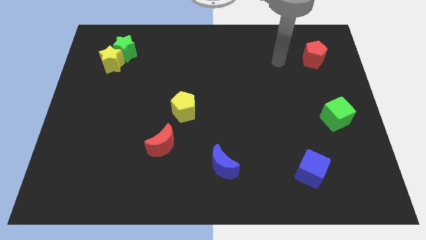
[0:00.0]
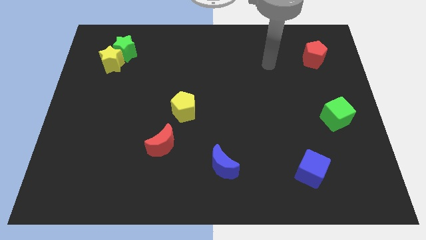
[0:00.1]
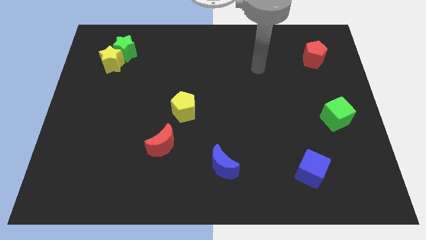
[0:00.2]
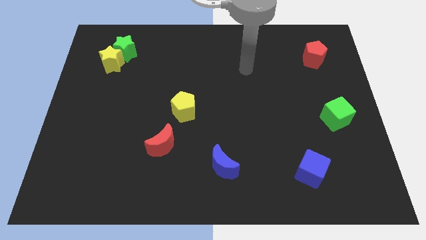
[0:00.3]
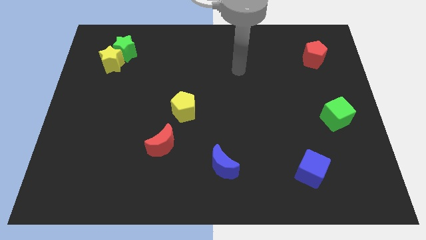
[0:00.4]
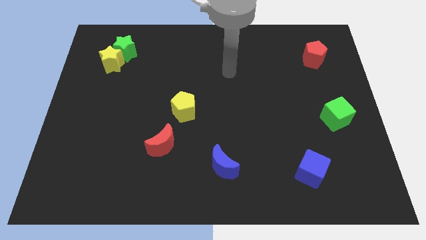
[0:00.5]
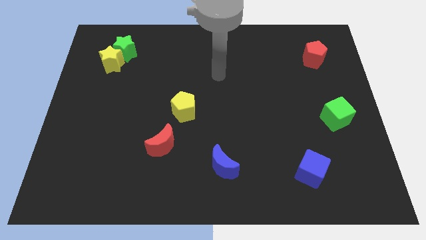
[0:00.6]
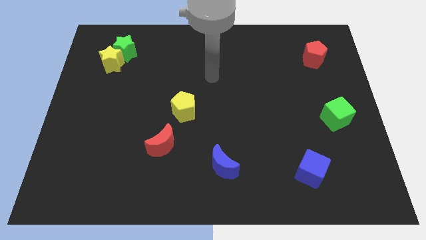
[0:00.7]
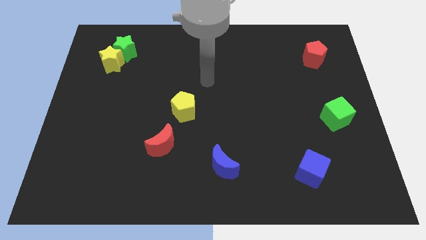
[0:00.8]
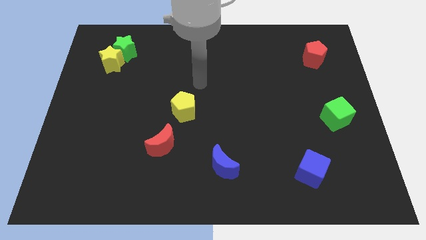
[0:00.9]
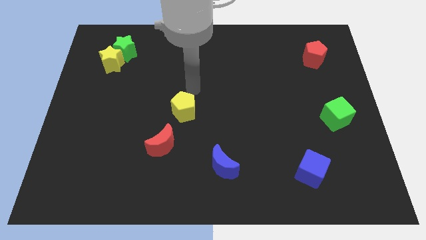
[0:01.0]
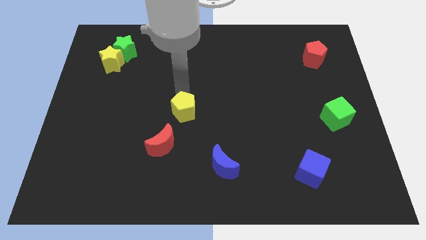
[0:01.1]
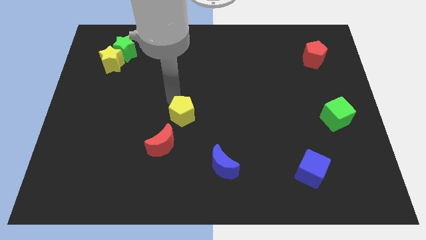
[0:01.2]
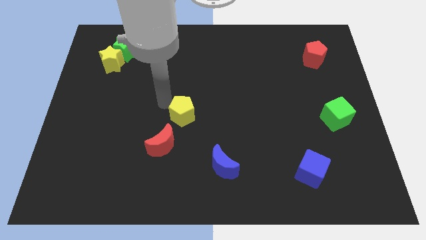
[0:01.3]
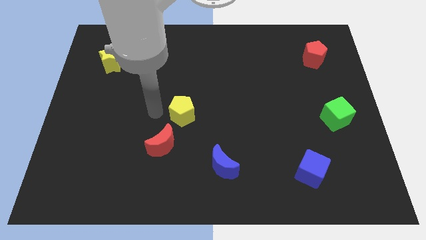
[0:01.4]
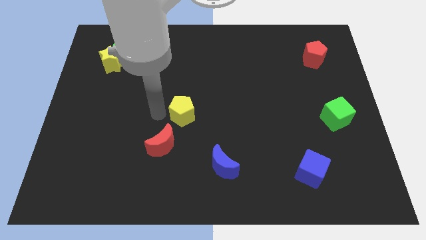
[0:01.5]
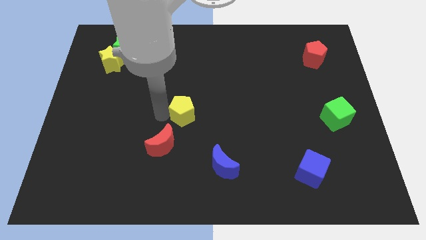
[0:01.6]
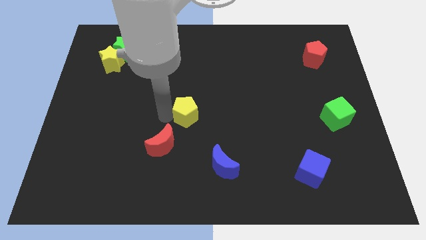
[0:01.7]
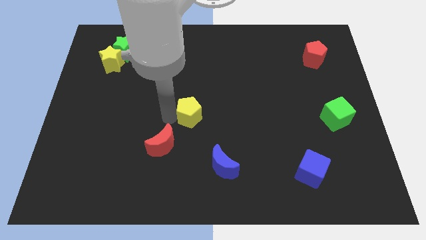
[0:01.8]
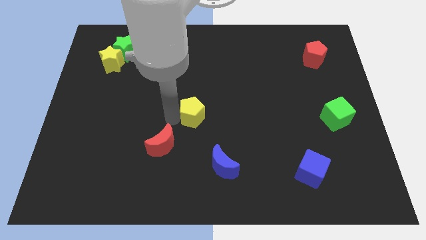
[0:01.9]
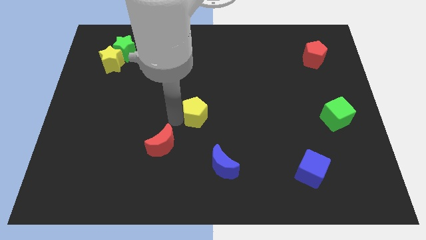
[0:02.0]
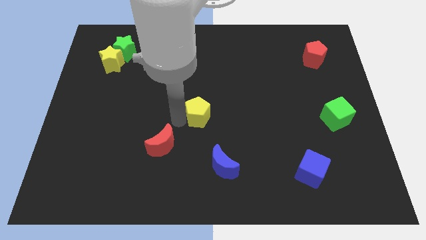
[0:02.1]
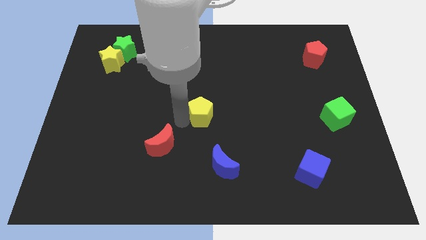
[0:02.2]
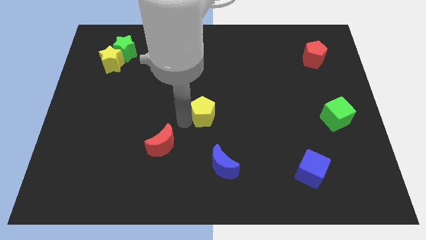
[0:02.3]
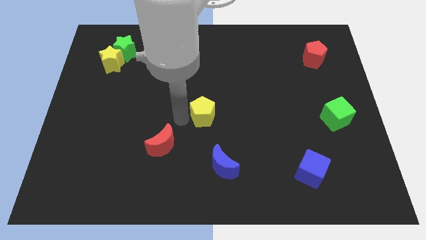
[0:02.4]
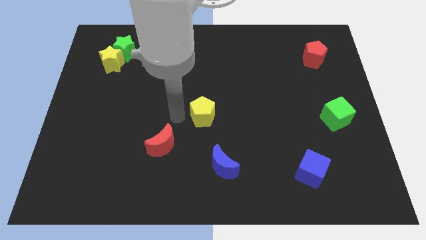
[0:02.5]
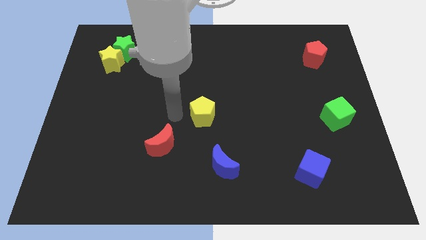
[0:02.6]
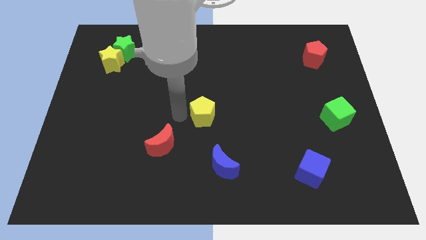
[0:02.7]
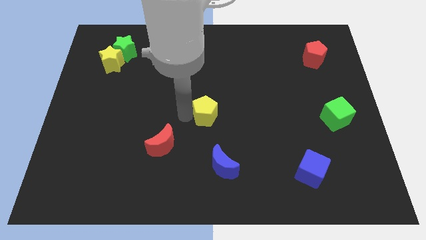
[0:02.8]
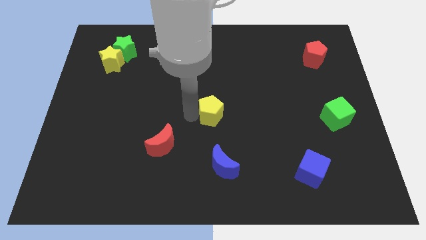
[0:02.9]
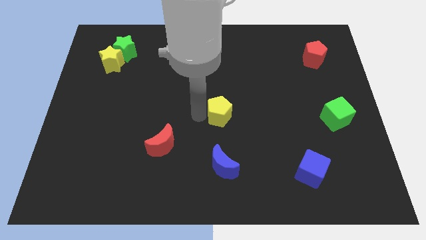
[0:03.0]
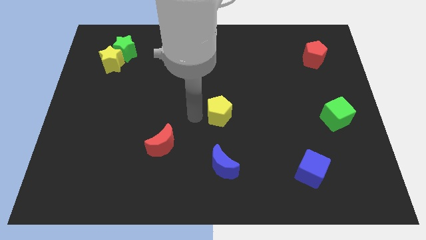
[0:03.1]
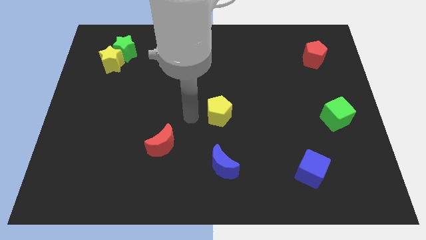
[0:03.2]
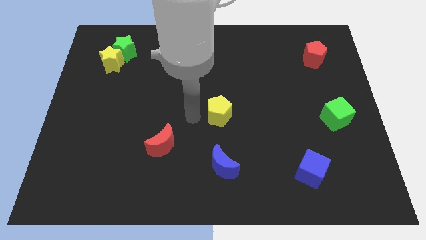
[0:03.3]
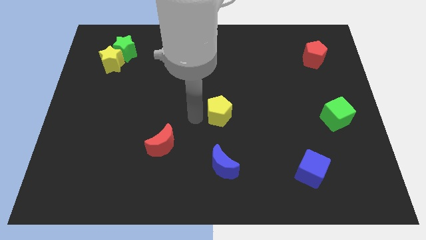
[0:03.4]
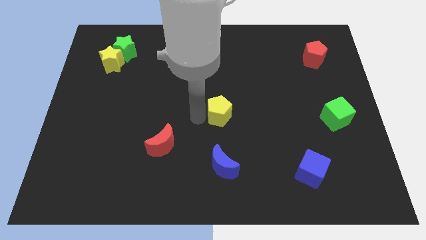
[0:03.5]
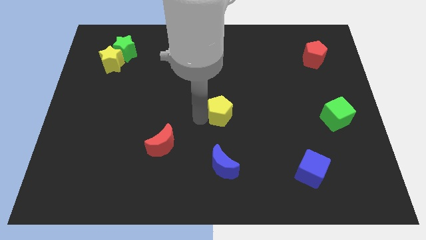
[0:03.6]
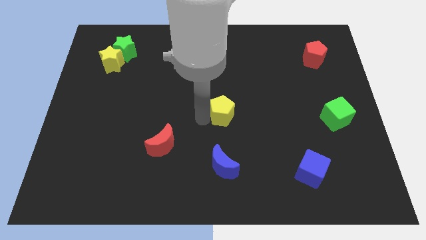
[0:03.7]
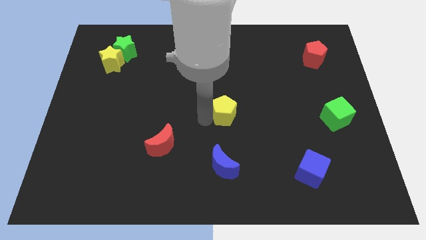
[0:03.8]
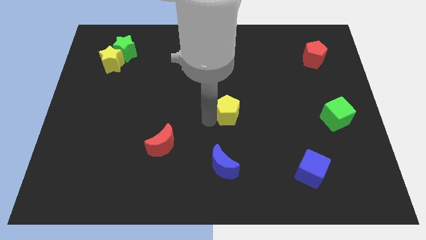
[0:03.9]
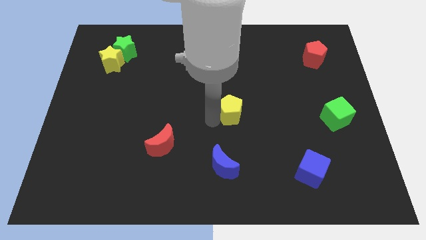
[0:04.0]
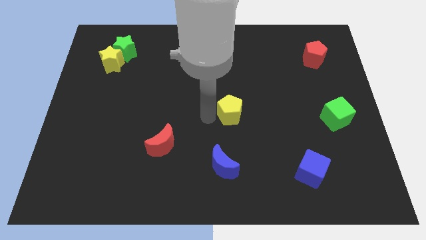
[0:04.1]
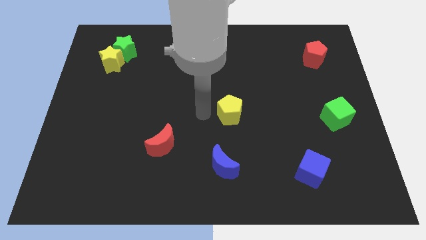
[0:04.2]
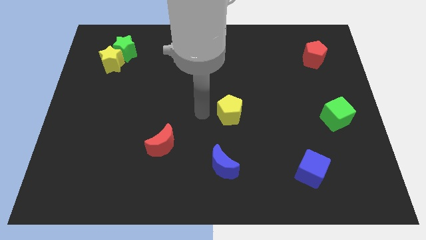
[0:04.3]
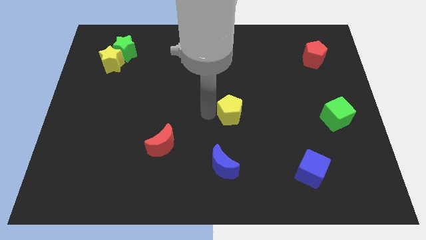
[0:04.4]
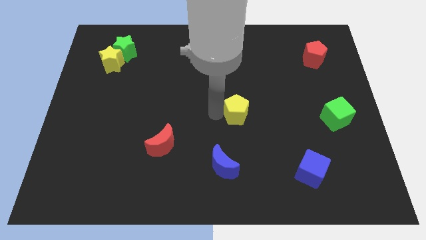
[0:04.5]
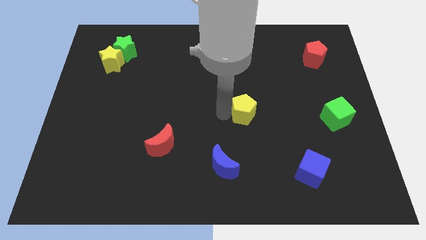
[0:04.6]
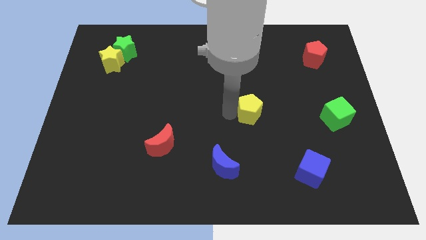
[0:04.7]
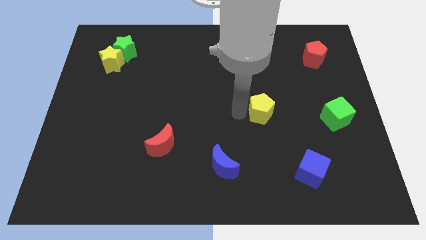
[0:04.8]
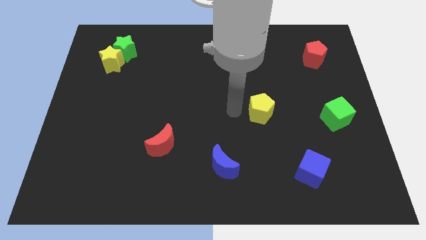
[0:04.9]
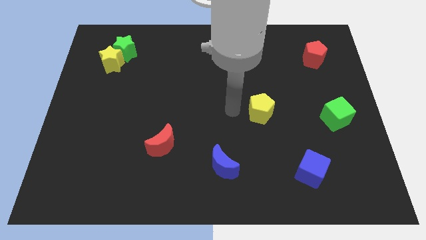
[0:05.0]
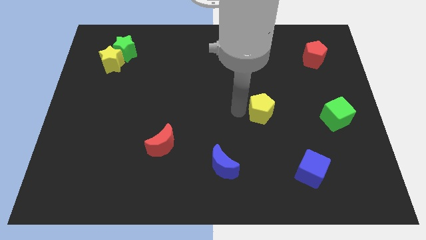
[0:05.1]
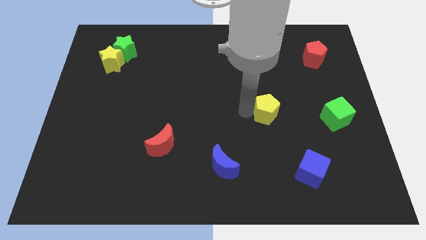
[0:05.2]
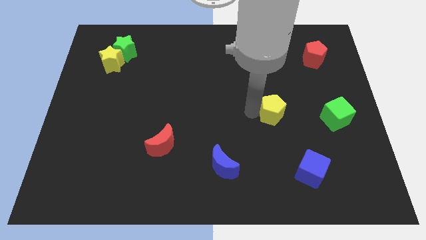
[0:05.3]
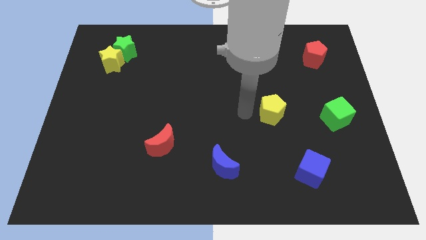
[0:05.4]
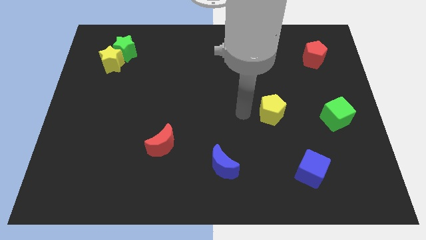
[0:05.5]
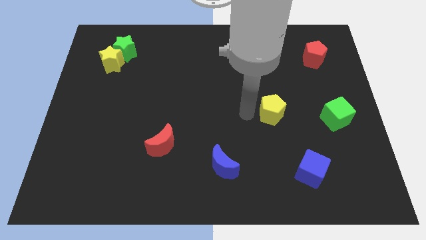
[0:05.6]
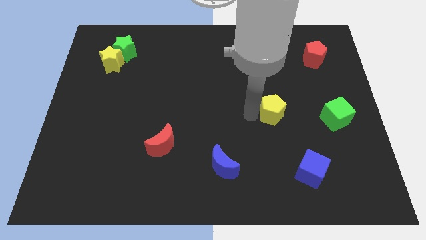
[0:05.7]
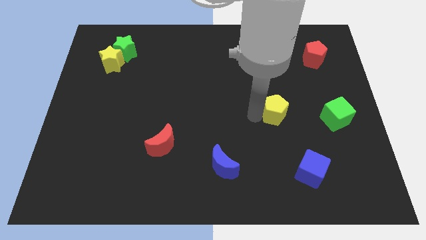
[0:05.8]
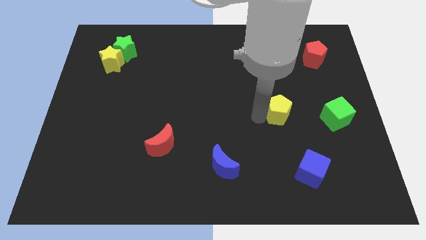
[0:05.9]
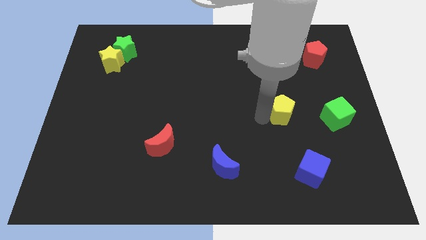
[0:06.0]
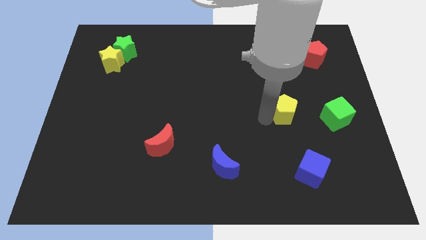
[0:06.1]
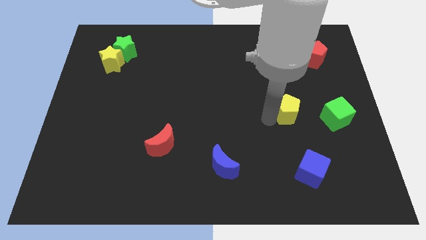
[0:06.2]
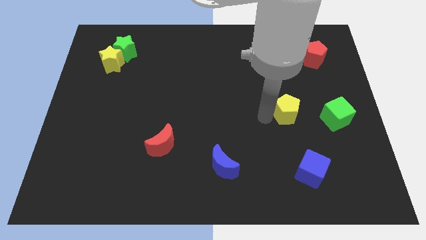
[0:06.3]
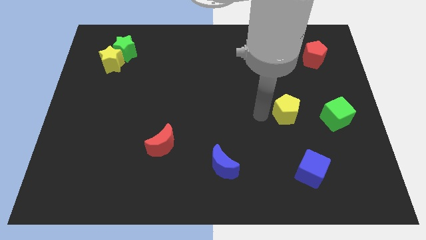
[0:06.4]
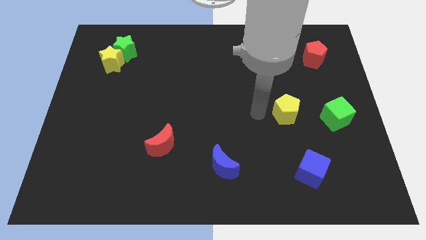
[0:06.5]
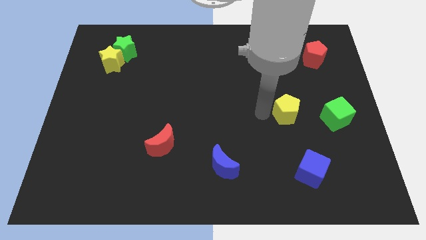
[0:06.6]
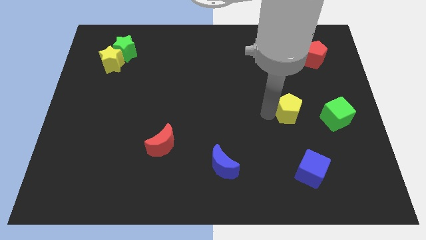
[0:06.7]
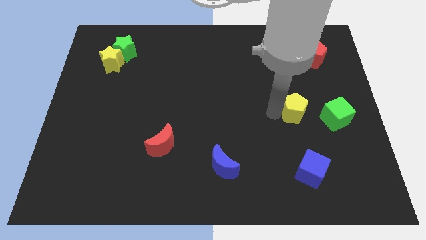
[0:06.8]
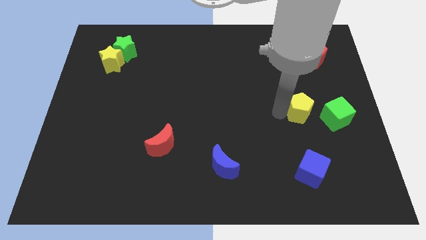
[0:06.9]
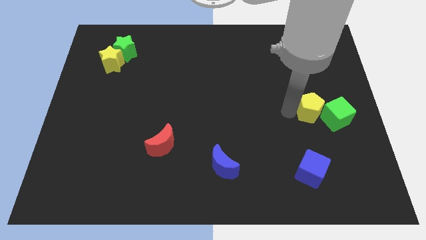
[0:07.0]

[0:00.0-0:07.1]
put the yellow pentagon towards the green cube

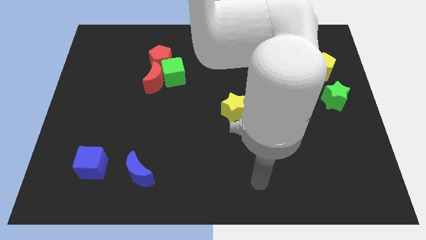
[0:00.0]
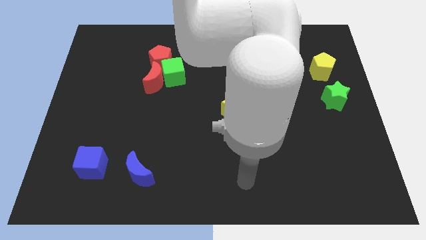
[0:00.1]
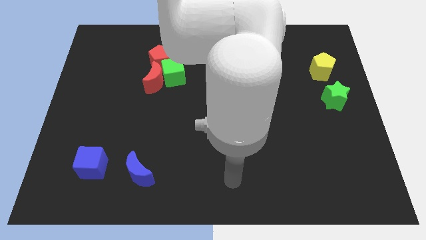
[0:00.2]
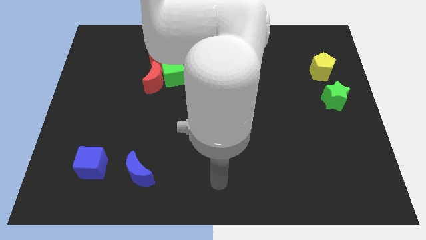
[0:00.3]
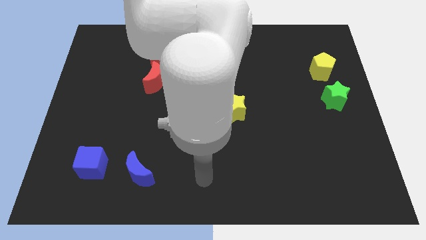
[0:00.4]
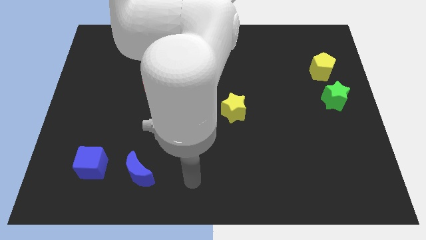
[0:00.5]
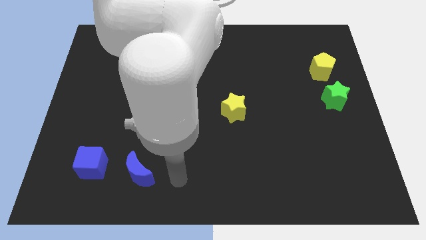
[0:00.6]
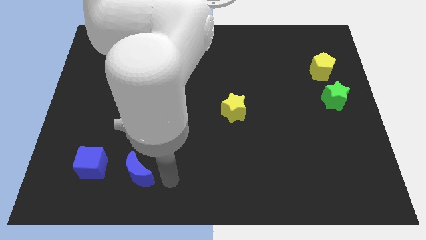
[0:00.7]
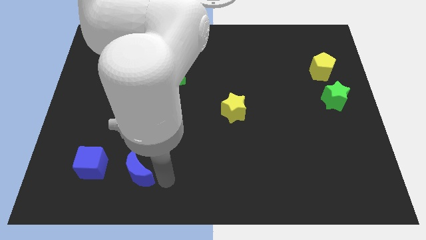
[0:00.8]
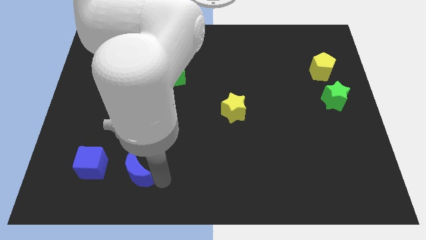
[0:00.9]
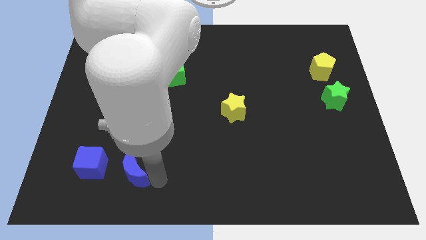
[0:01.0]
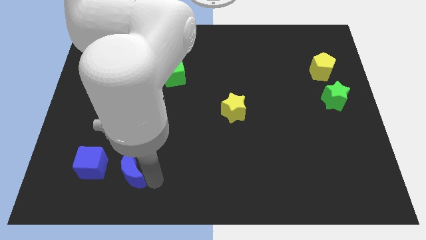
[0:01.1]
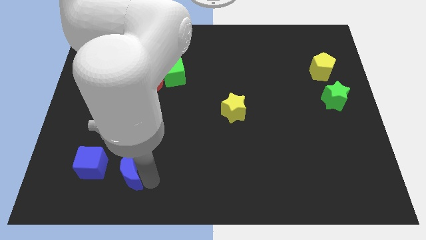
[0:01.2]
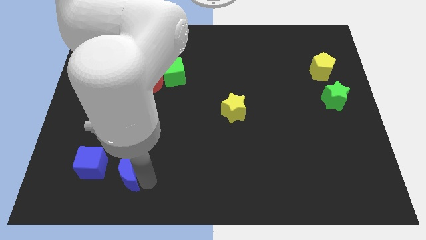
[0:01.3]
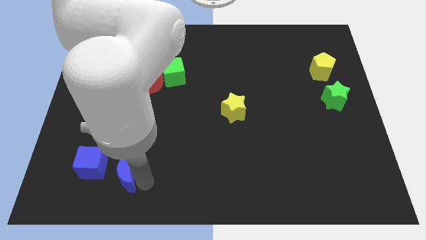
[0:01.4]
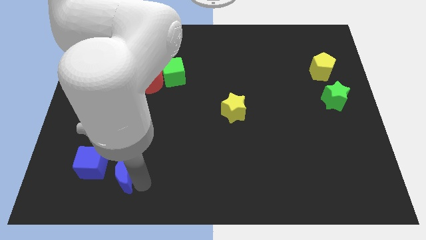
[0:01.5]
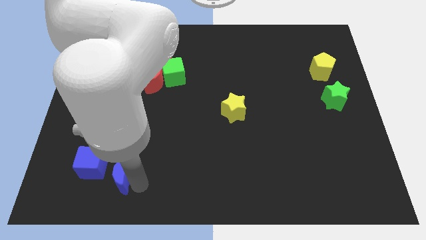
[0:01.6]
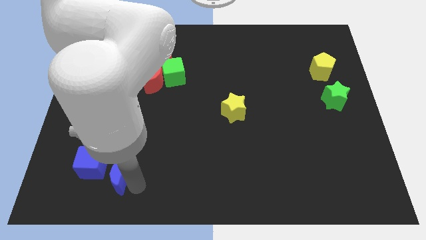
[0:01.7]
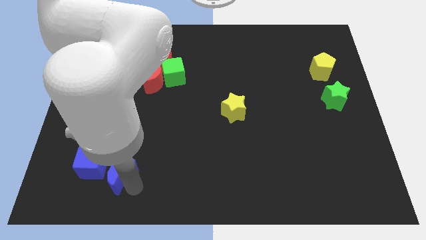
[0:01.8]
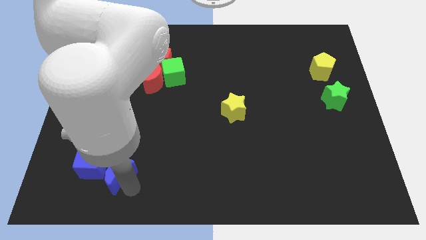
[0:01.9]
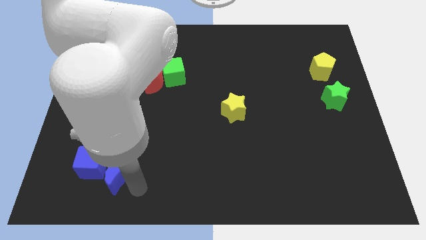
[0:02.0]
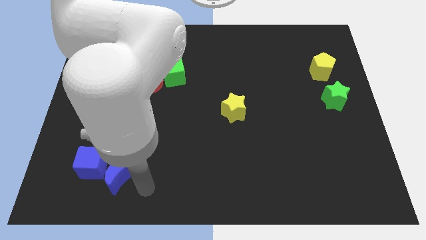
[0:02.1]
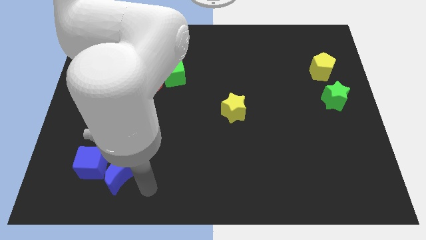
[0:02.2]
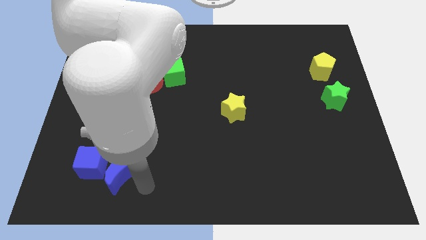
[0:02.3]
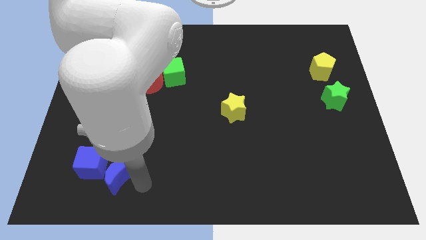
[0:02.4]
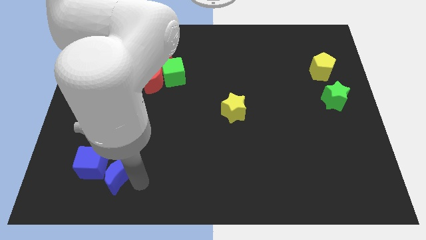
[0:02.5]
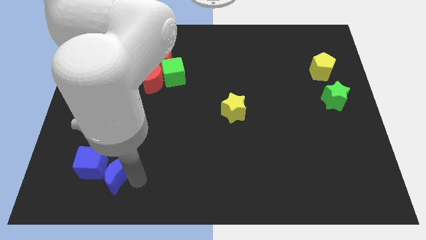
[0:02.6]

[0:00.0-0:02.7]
slide the blue moon next to the blue cube
